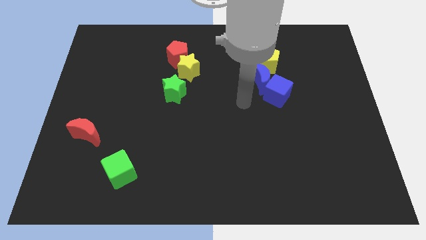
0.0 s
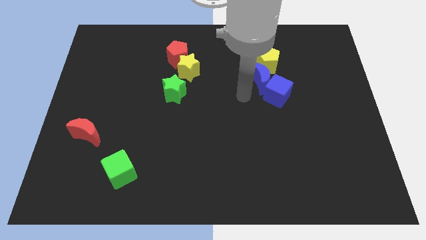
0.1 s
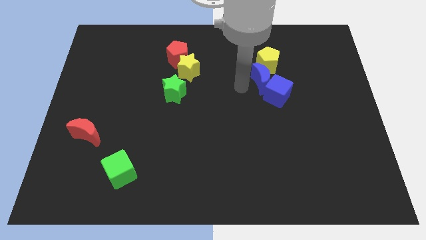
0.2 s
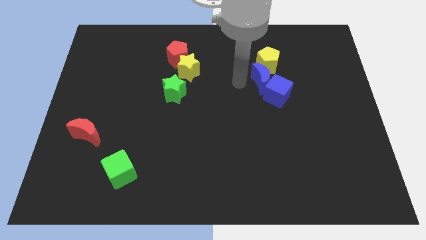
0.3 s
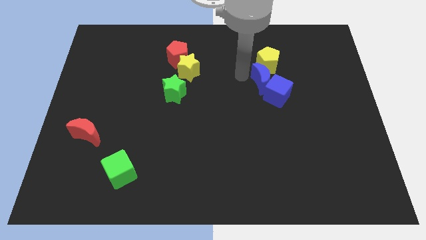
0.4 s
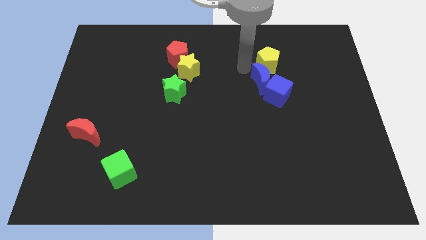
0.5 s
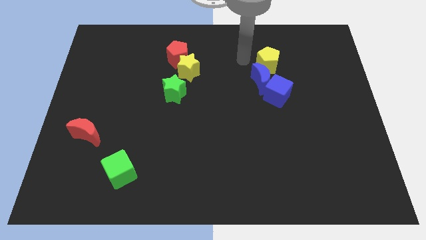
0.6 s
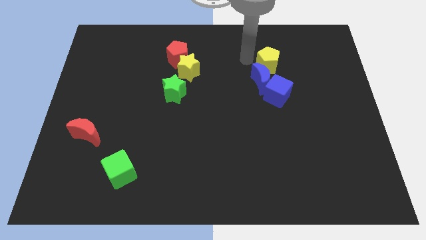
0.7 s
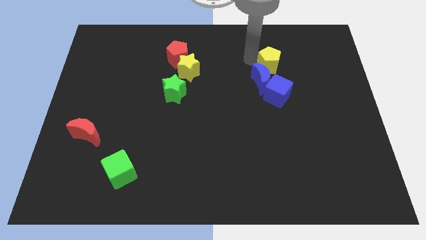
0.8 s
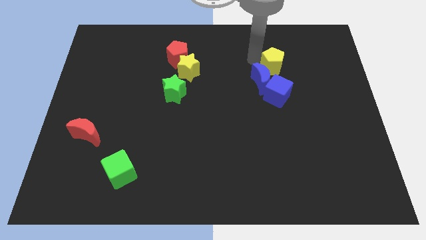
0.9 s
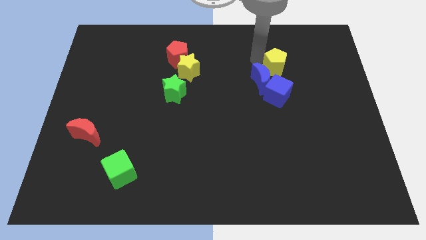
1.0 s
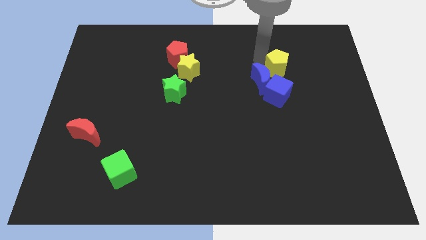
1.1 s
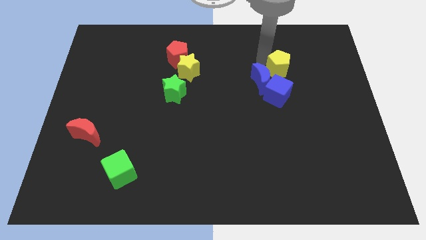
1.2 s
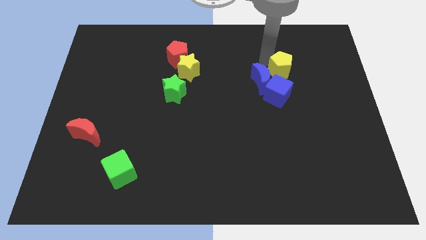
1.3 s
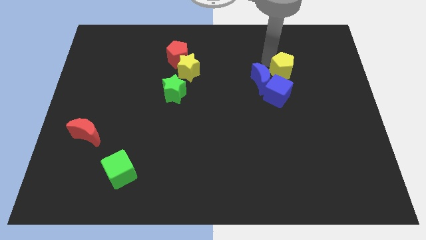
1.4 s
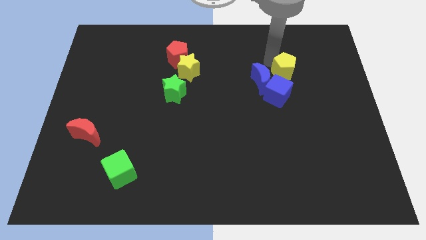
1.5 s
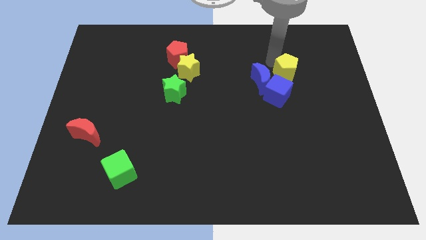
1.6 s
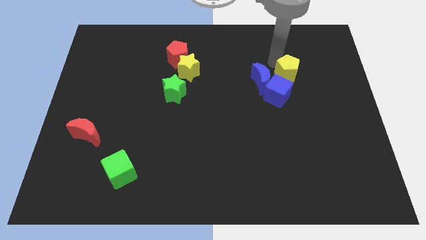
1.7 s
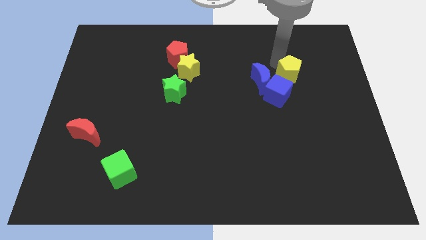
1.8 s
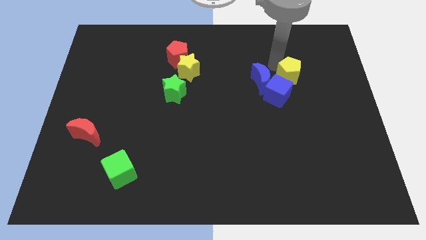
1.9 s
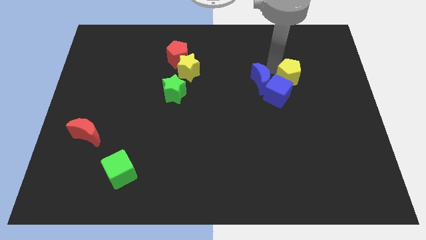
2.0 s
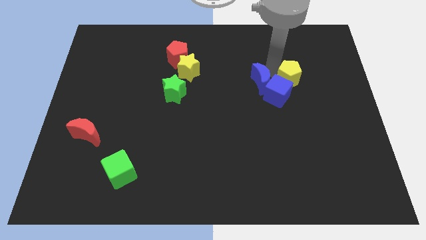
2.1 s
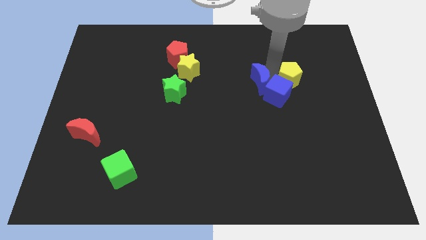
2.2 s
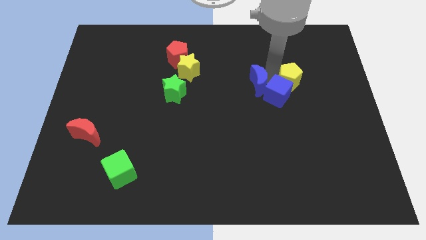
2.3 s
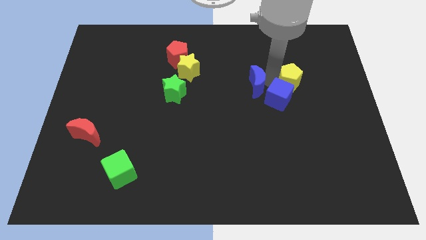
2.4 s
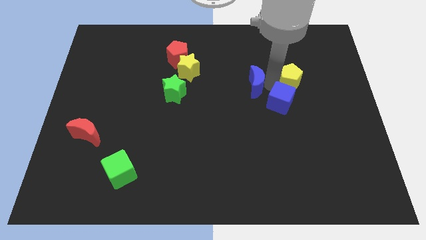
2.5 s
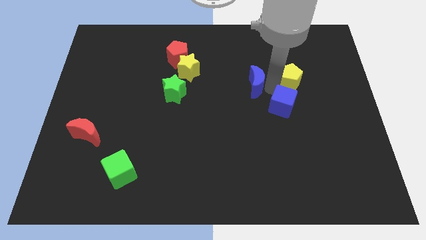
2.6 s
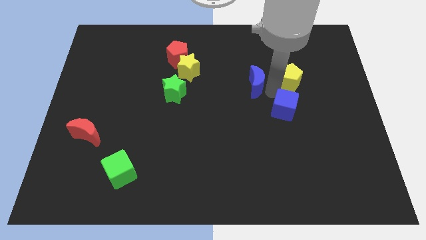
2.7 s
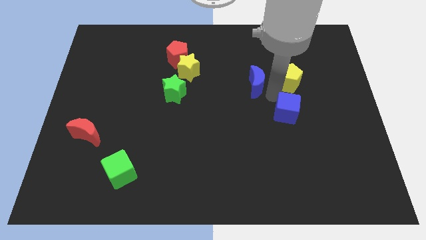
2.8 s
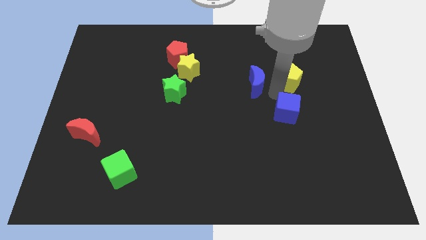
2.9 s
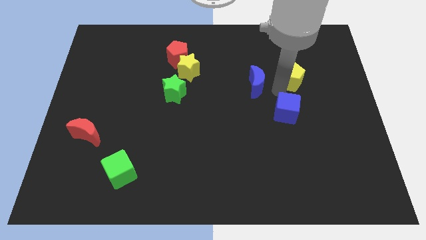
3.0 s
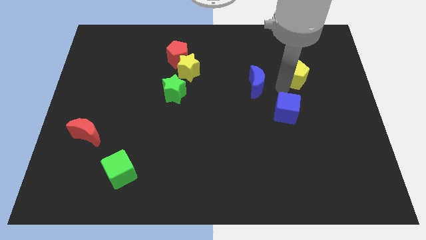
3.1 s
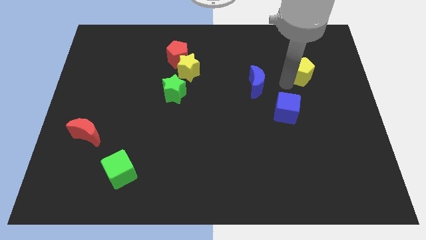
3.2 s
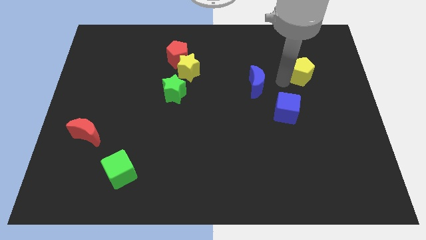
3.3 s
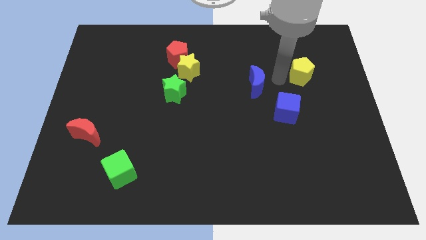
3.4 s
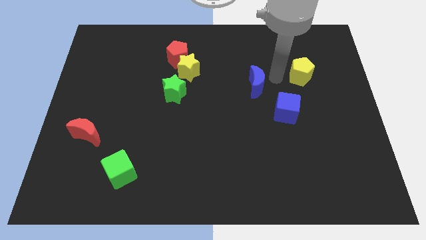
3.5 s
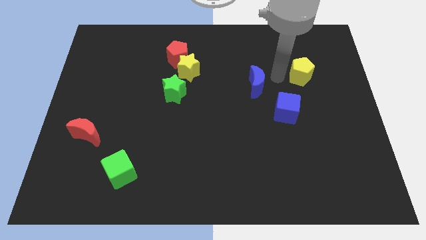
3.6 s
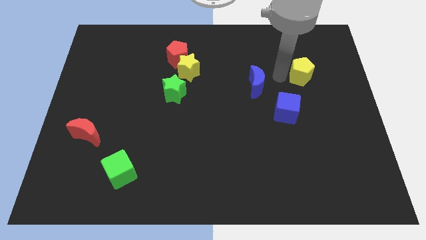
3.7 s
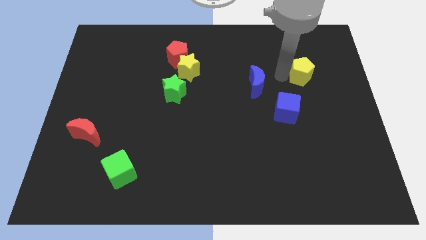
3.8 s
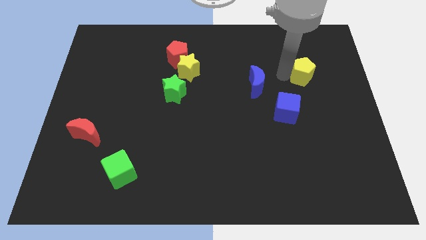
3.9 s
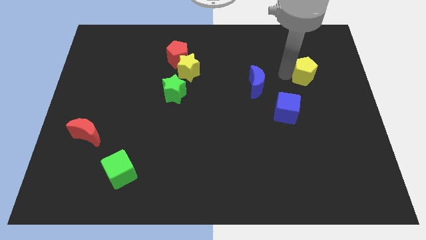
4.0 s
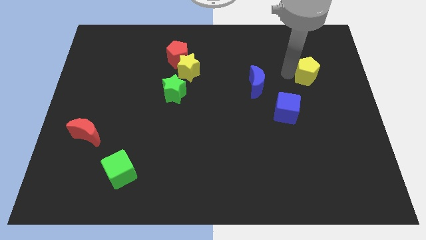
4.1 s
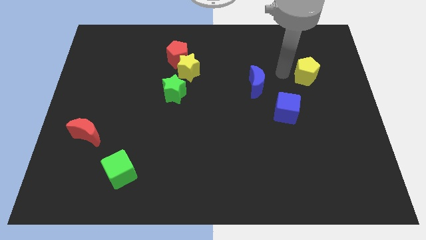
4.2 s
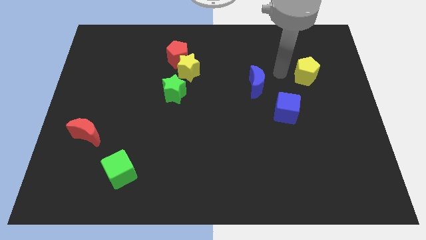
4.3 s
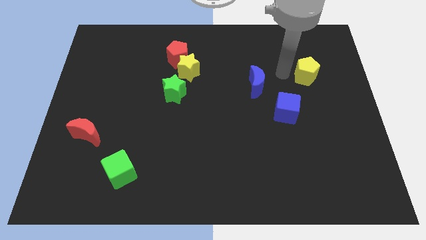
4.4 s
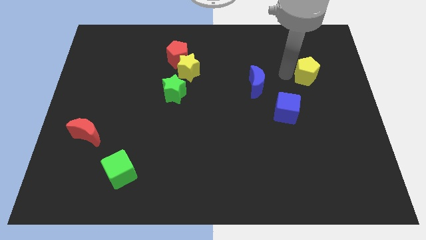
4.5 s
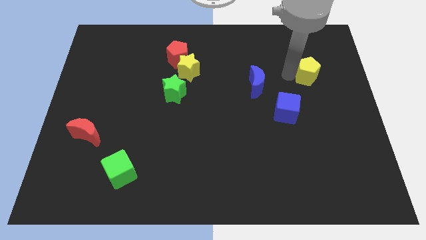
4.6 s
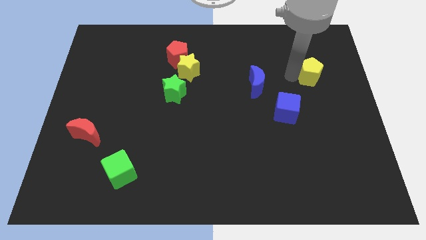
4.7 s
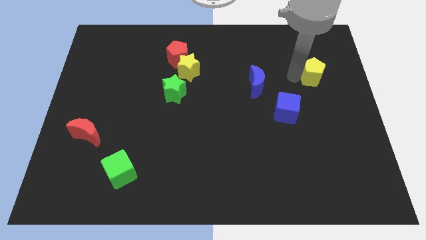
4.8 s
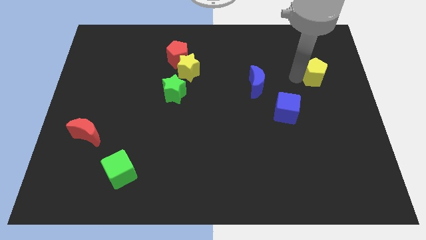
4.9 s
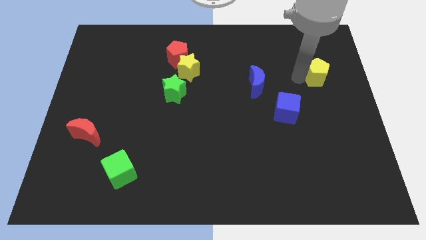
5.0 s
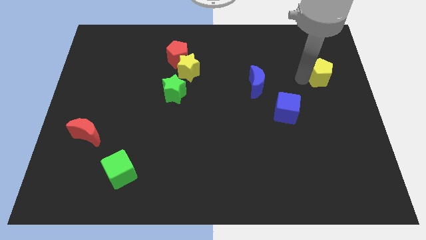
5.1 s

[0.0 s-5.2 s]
move the yellow pentagon to the right side

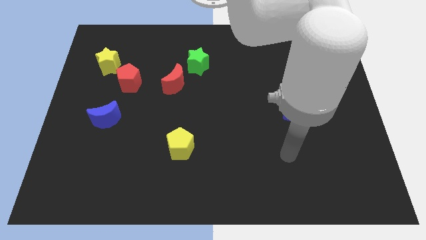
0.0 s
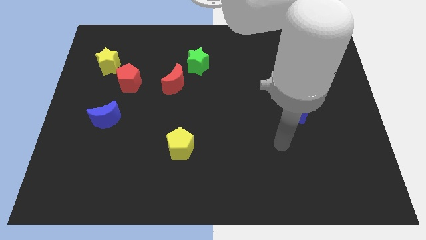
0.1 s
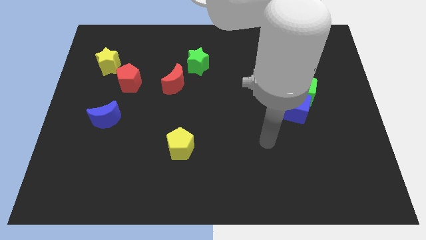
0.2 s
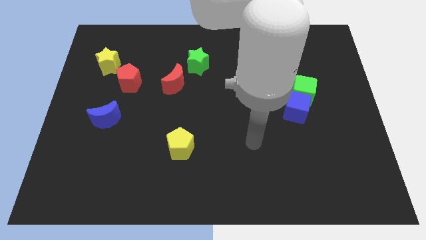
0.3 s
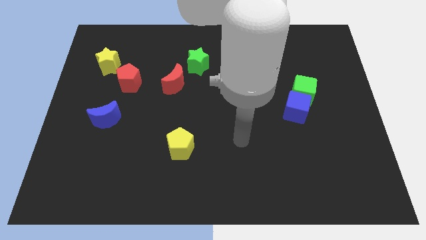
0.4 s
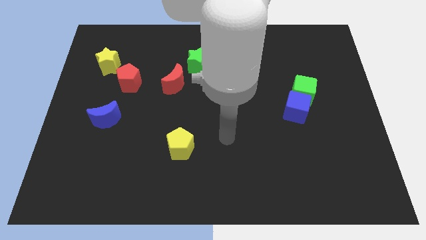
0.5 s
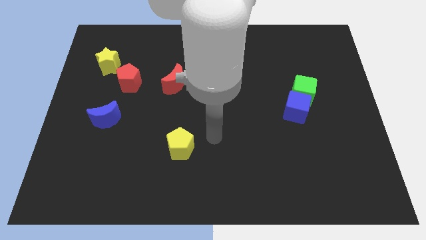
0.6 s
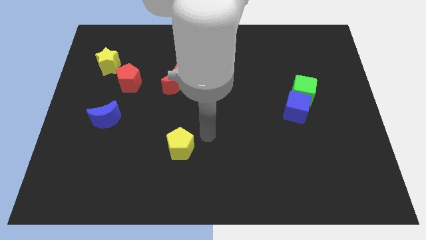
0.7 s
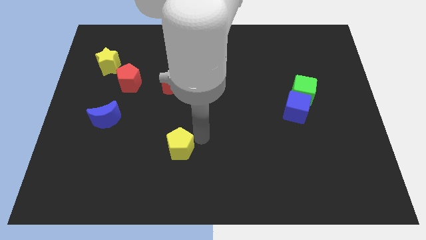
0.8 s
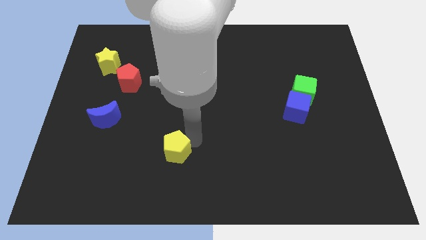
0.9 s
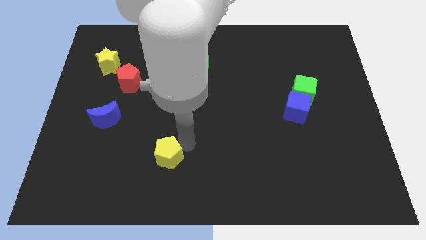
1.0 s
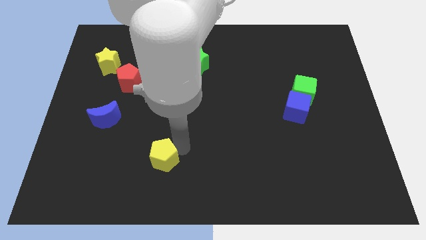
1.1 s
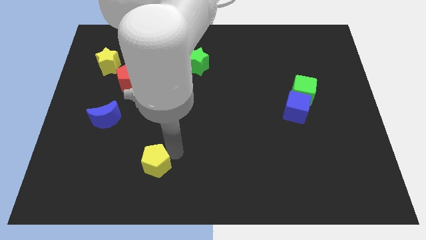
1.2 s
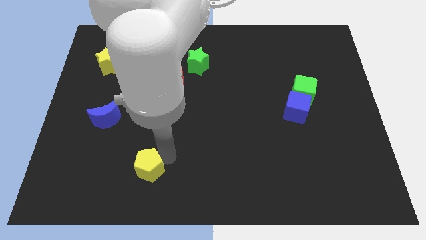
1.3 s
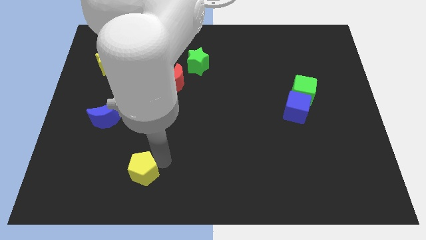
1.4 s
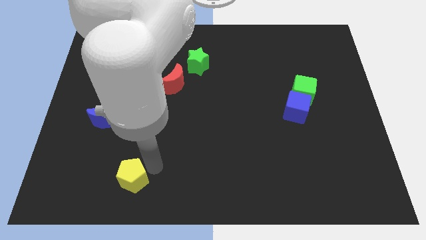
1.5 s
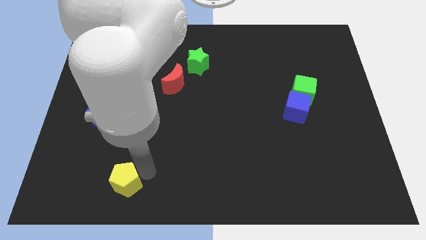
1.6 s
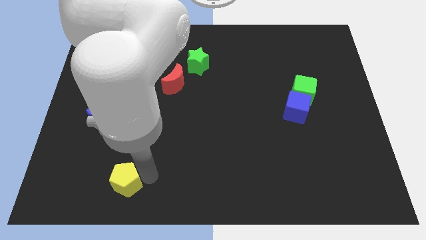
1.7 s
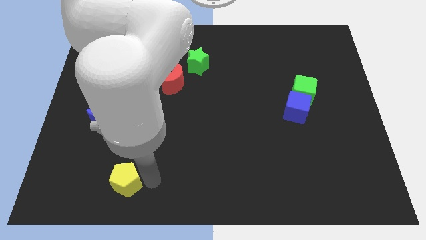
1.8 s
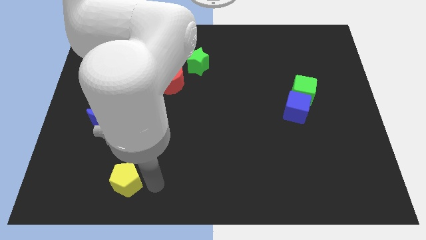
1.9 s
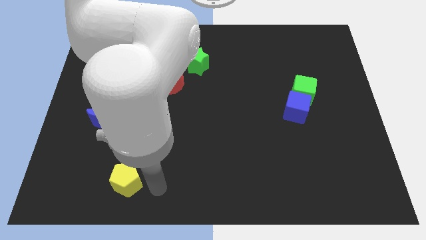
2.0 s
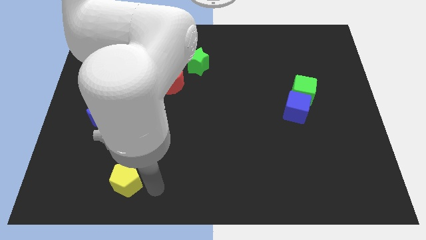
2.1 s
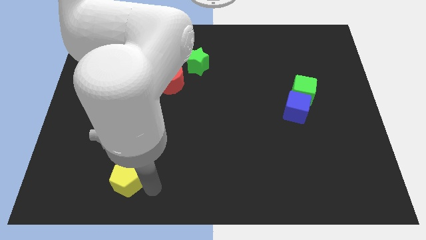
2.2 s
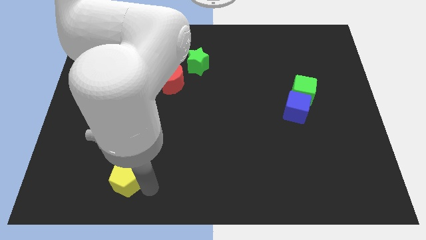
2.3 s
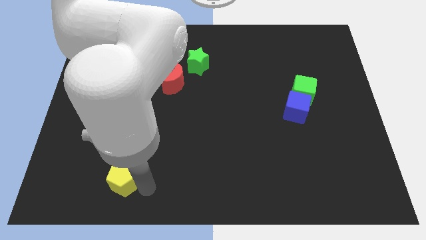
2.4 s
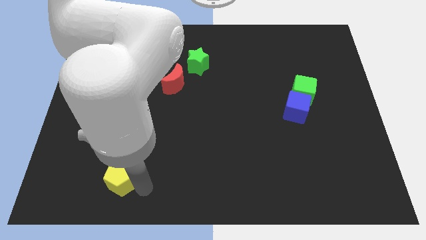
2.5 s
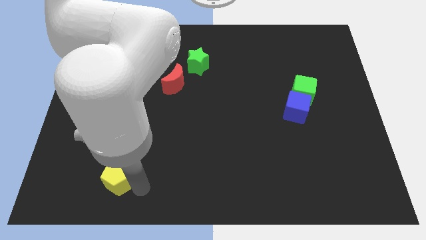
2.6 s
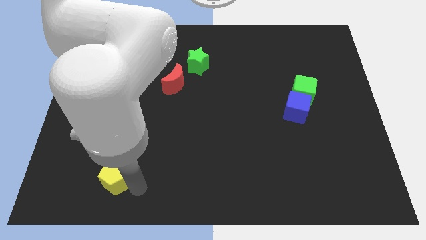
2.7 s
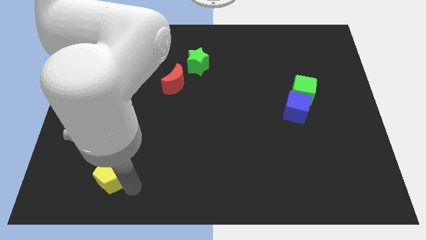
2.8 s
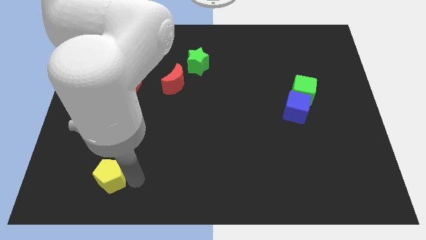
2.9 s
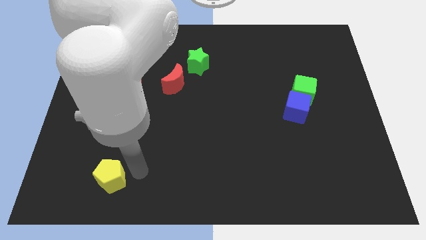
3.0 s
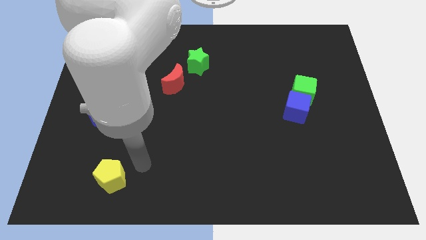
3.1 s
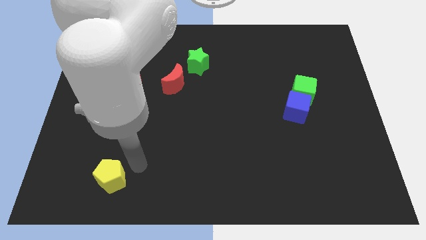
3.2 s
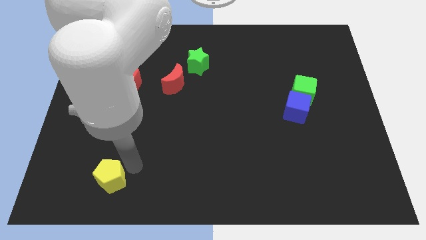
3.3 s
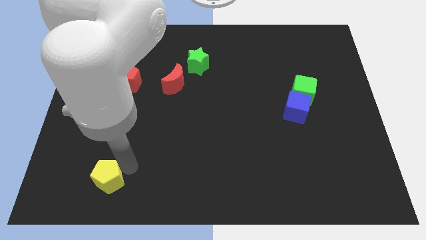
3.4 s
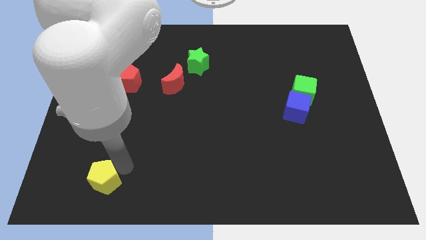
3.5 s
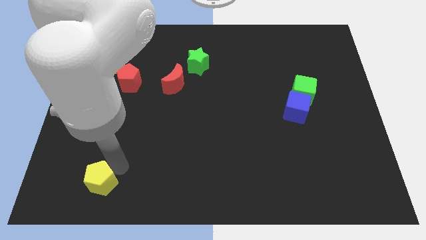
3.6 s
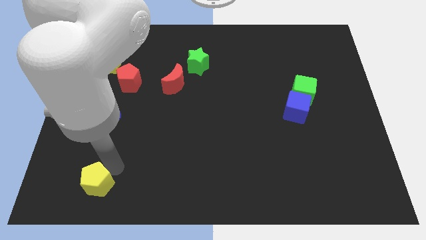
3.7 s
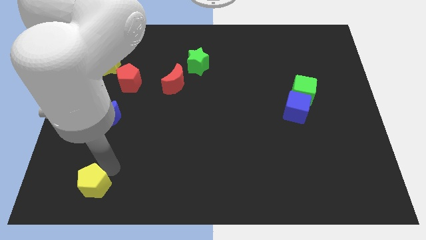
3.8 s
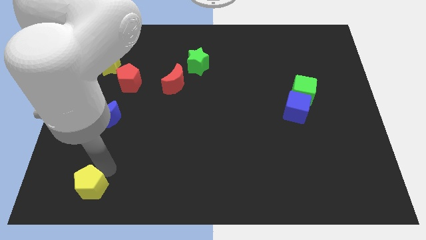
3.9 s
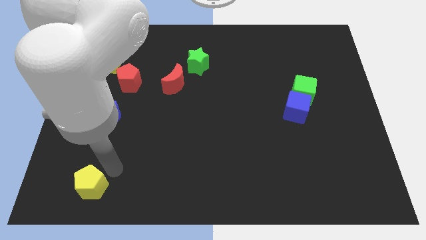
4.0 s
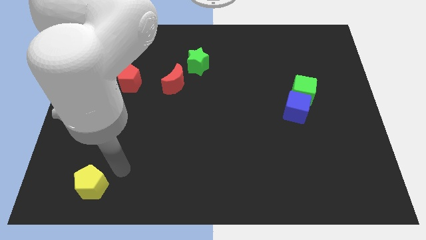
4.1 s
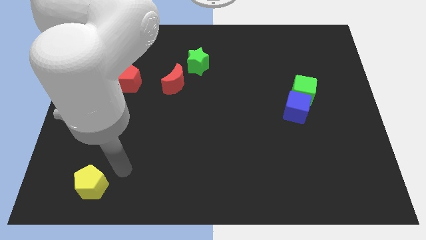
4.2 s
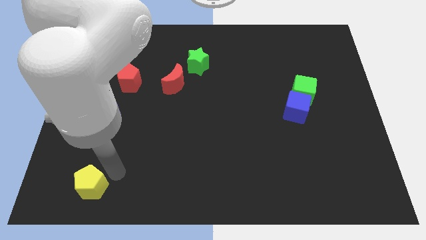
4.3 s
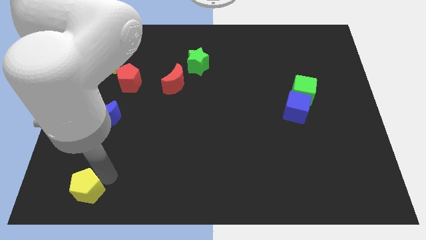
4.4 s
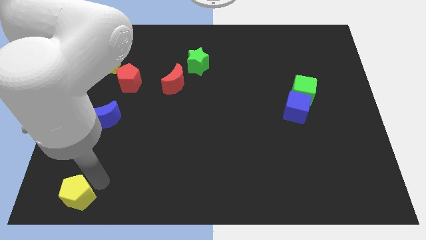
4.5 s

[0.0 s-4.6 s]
put the yellow pentagon to the lower left corner
